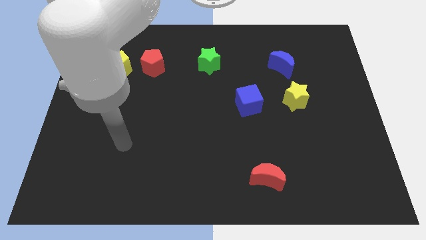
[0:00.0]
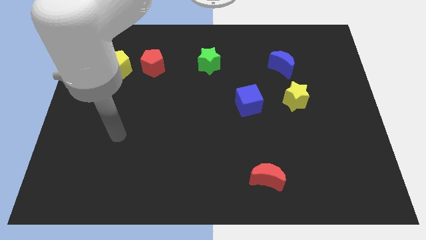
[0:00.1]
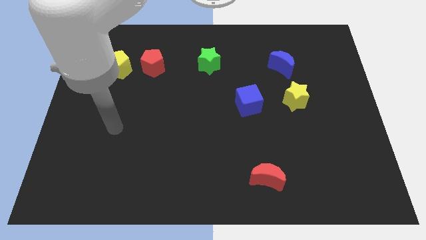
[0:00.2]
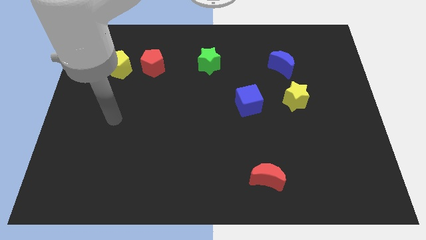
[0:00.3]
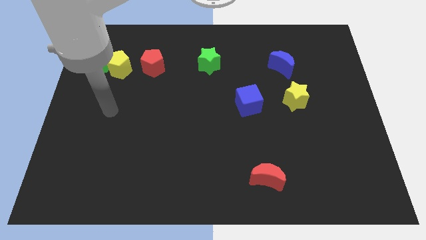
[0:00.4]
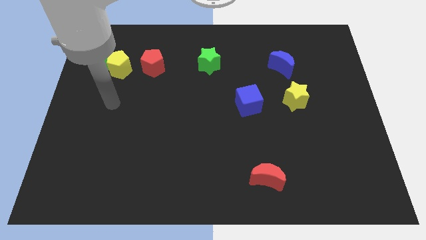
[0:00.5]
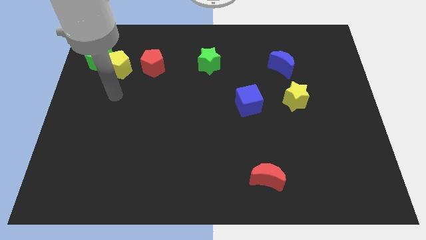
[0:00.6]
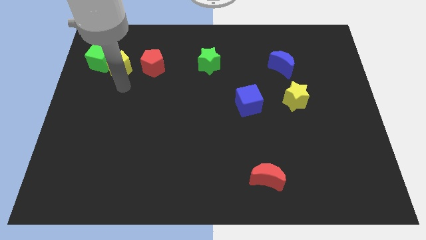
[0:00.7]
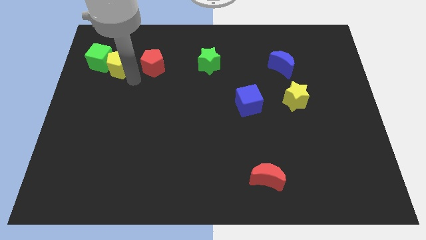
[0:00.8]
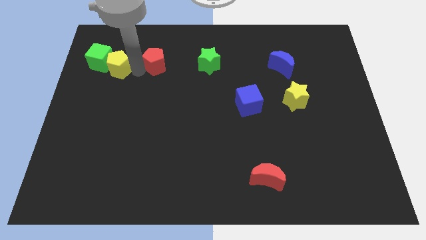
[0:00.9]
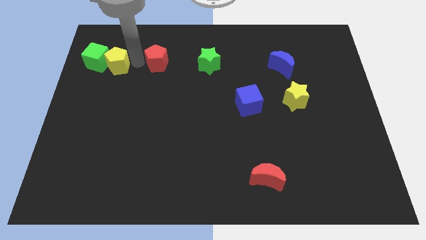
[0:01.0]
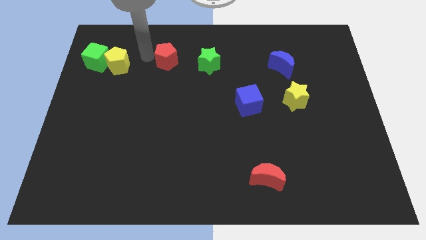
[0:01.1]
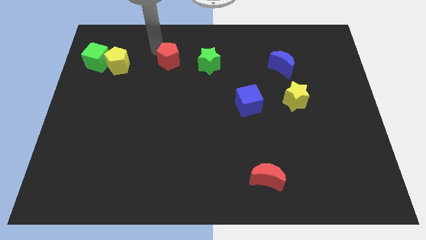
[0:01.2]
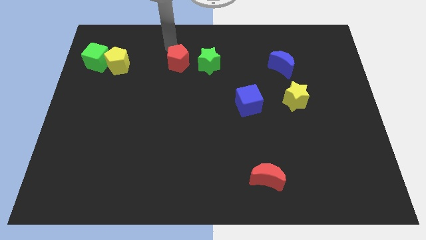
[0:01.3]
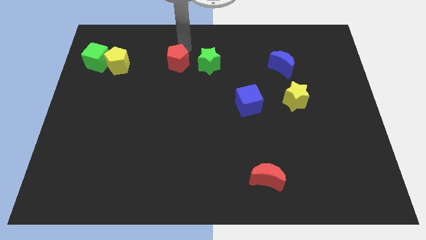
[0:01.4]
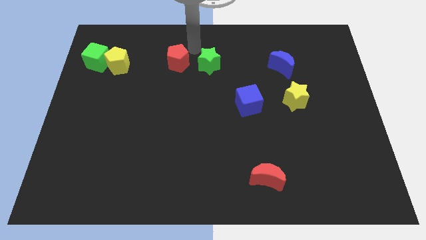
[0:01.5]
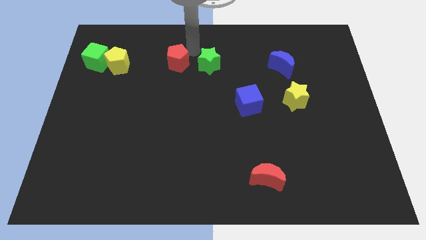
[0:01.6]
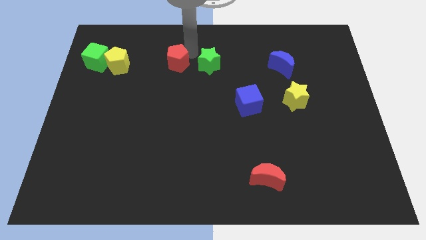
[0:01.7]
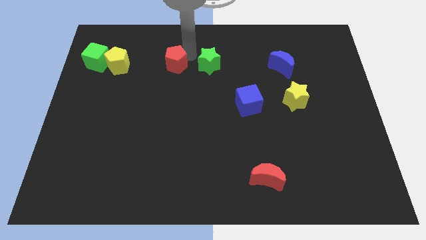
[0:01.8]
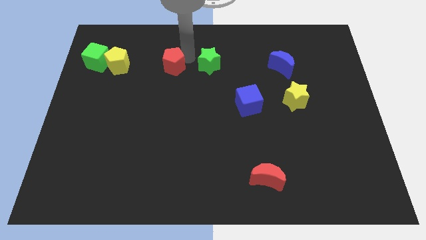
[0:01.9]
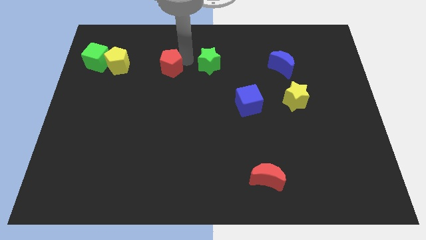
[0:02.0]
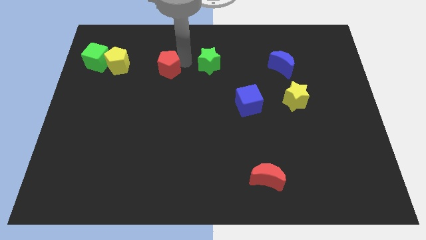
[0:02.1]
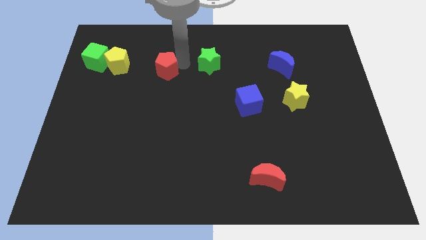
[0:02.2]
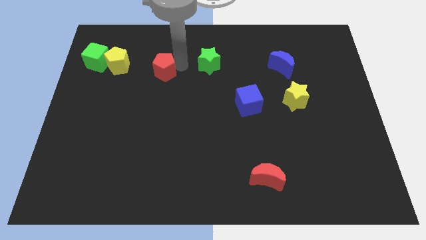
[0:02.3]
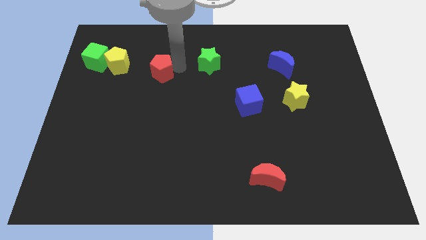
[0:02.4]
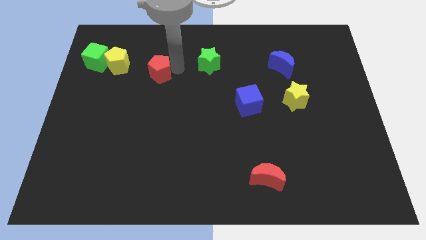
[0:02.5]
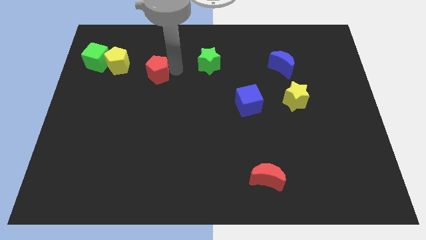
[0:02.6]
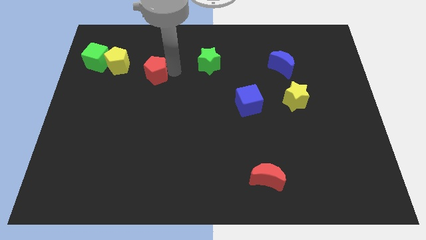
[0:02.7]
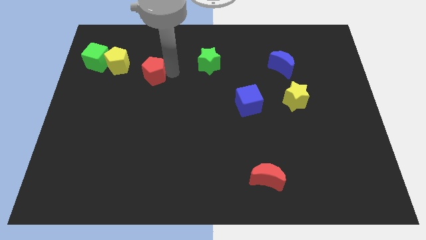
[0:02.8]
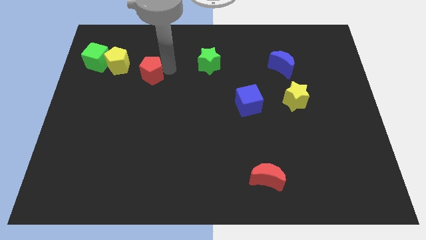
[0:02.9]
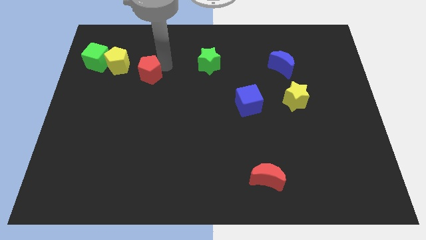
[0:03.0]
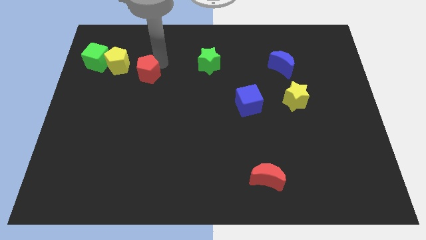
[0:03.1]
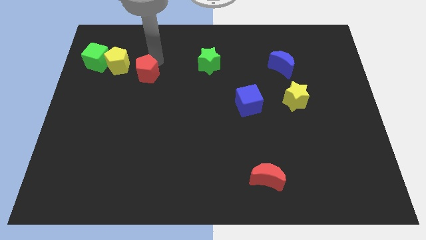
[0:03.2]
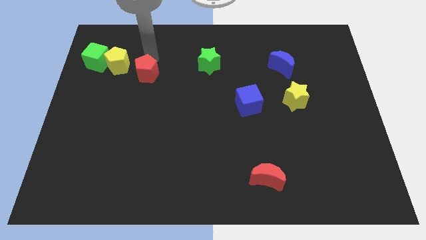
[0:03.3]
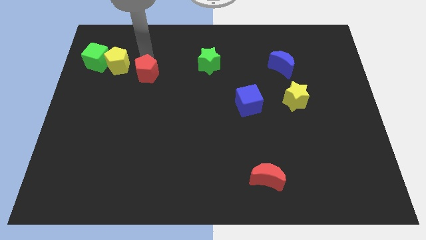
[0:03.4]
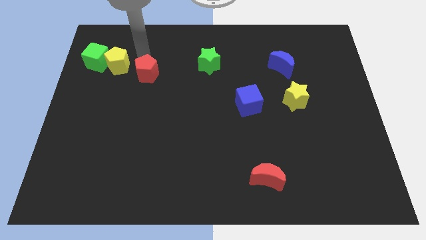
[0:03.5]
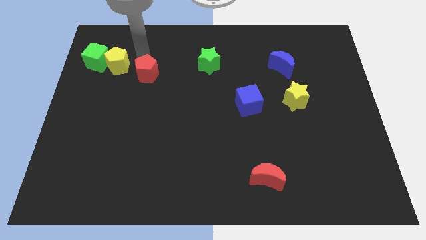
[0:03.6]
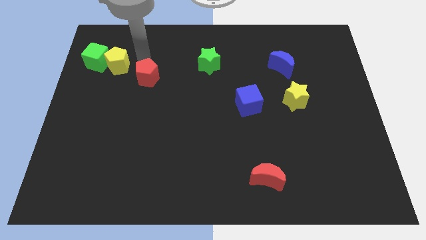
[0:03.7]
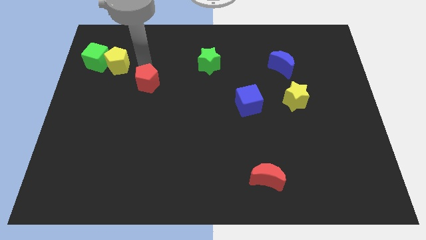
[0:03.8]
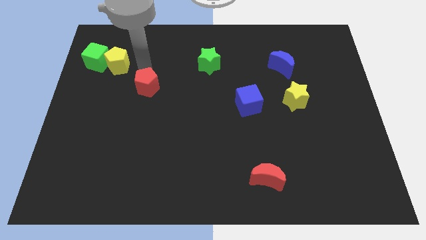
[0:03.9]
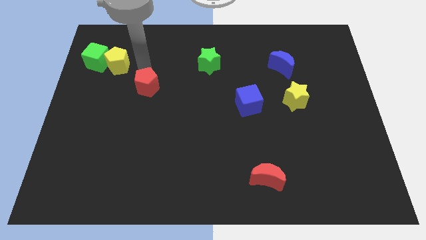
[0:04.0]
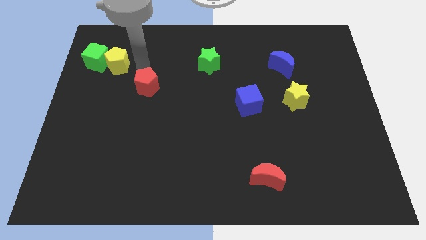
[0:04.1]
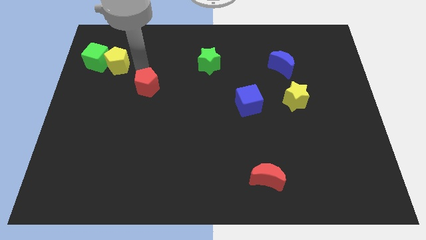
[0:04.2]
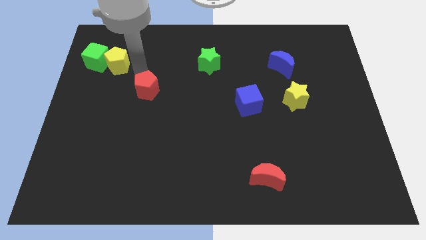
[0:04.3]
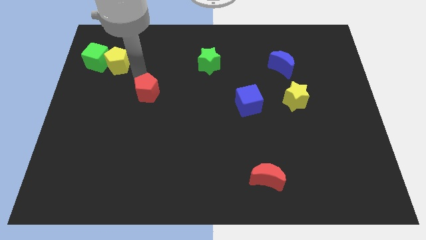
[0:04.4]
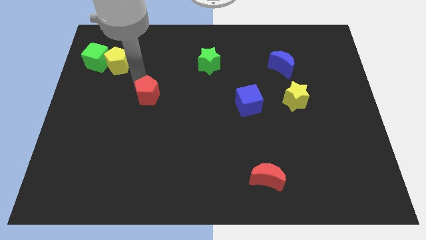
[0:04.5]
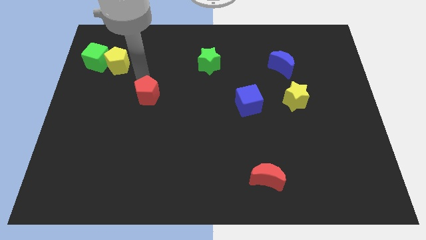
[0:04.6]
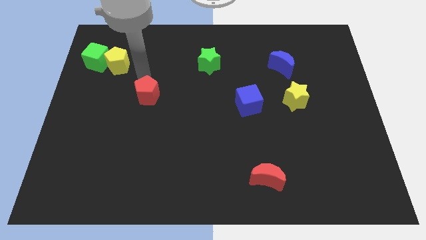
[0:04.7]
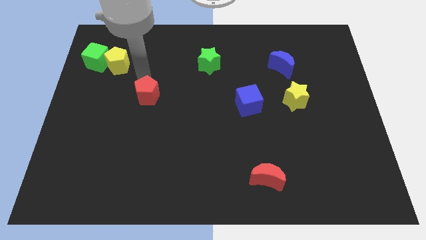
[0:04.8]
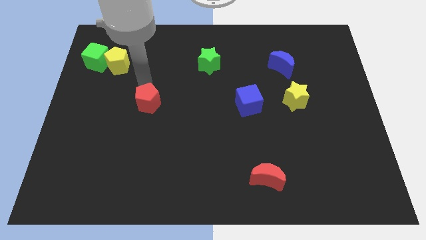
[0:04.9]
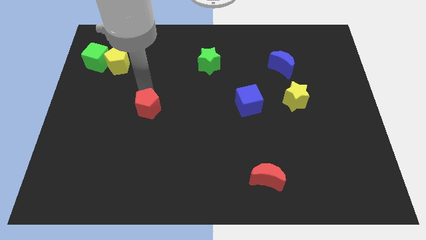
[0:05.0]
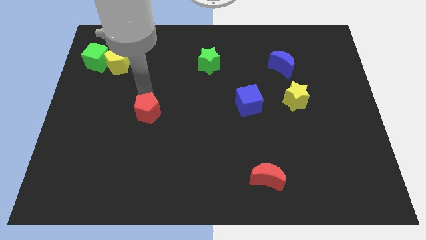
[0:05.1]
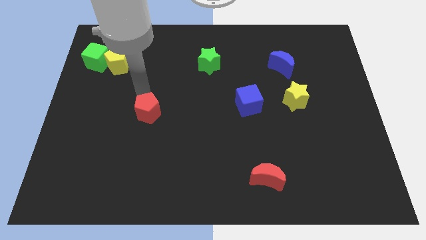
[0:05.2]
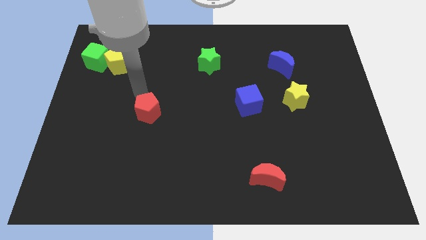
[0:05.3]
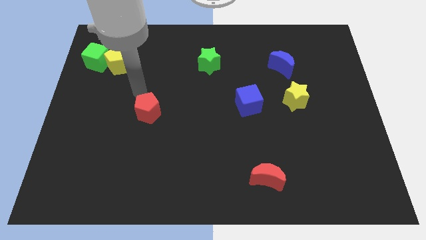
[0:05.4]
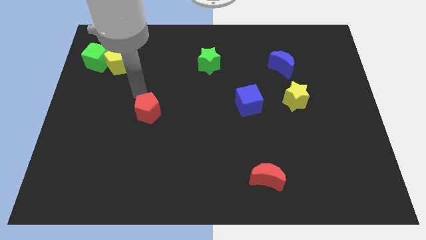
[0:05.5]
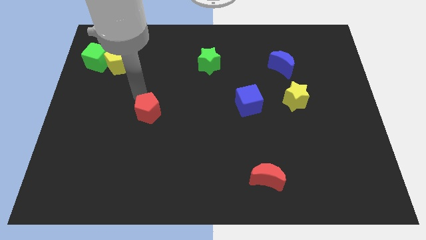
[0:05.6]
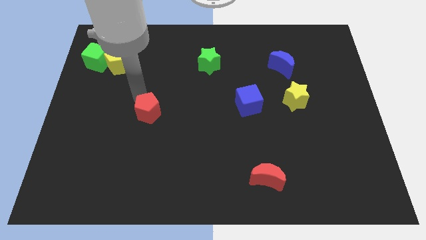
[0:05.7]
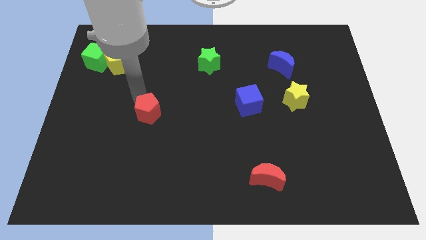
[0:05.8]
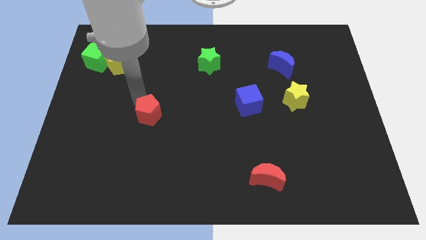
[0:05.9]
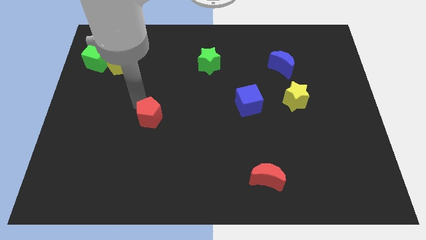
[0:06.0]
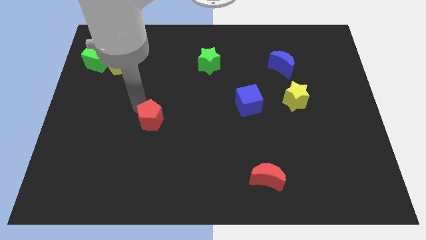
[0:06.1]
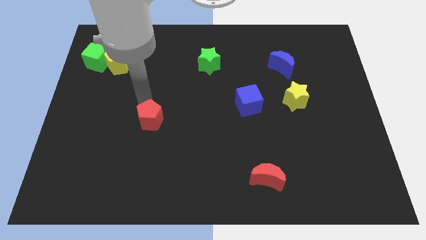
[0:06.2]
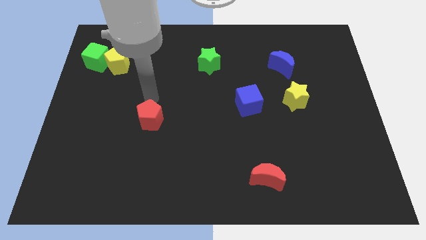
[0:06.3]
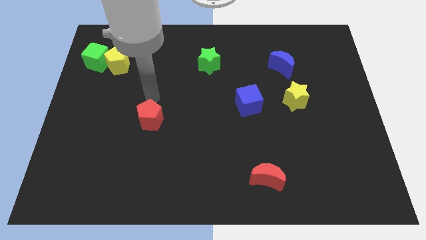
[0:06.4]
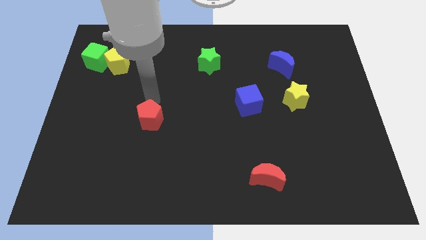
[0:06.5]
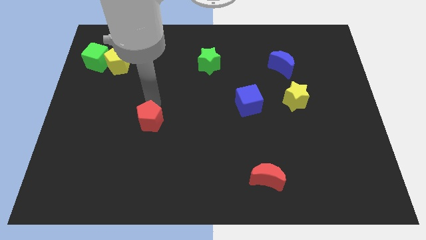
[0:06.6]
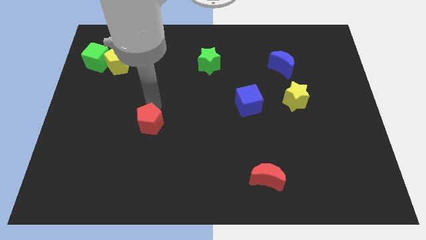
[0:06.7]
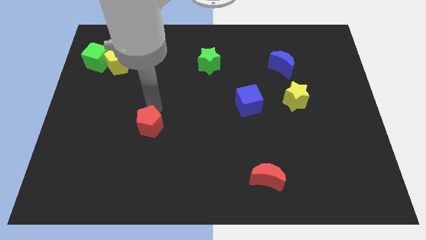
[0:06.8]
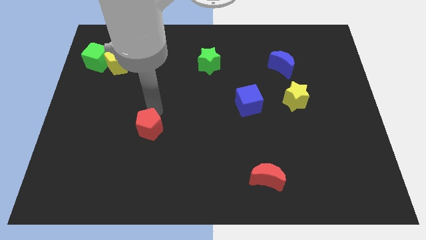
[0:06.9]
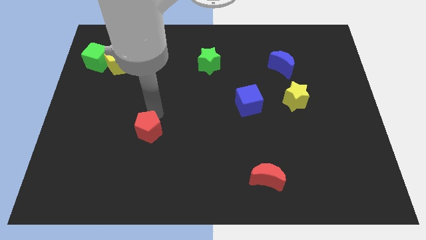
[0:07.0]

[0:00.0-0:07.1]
push the red pentagon down

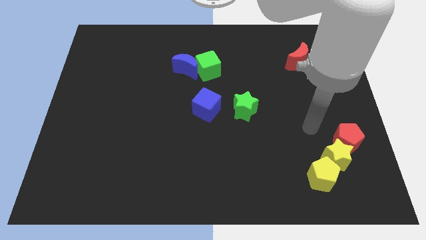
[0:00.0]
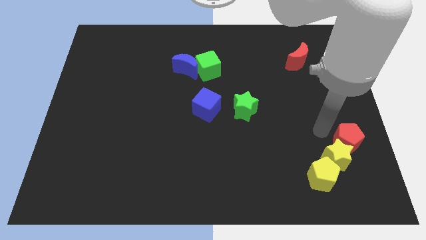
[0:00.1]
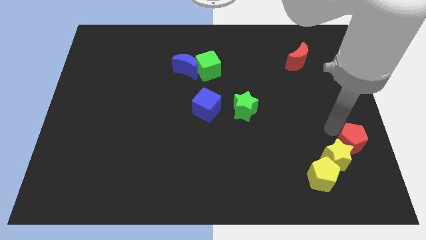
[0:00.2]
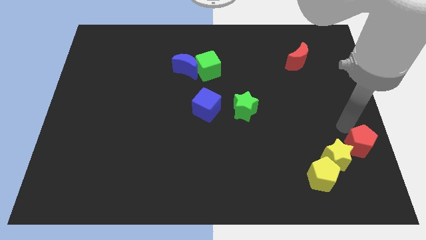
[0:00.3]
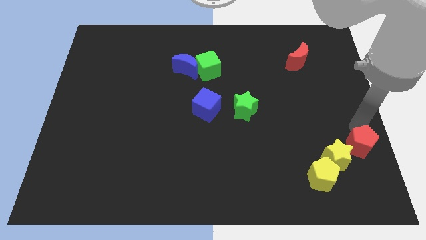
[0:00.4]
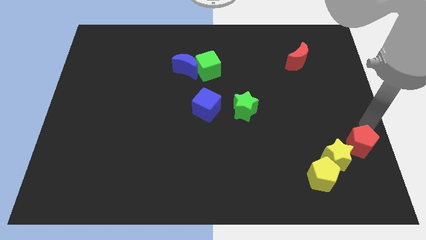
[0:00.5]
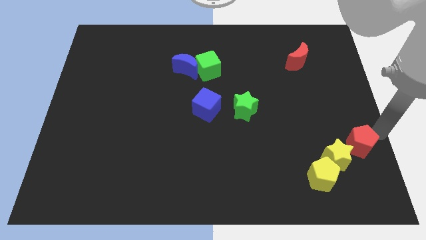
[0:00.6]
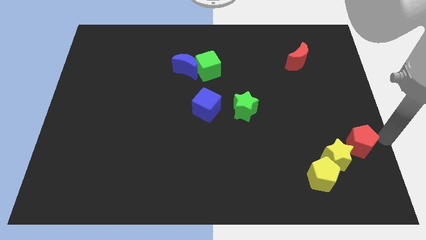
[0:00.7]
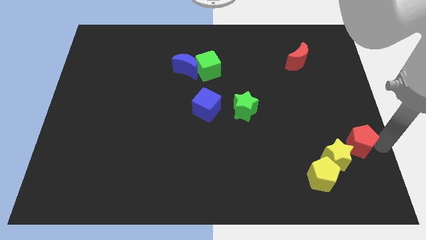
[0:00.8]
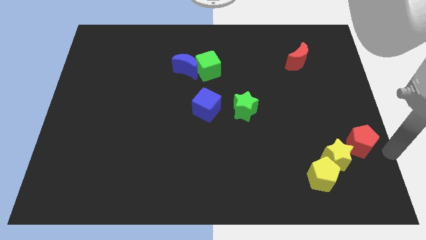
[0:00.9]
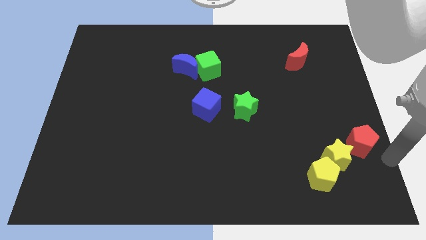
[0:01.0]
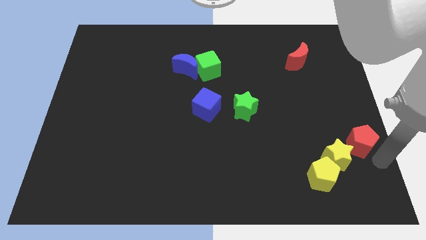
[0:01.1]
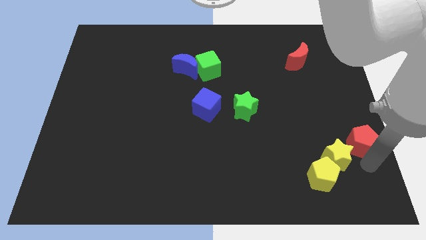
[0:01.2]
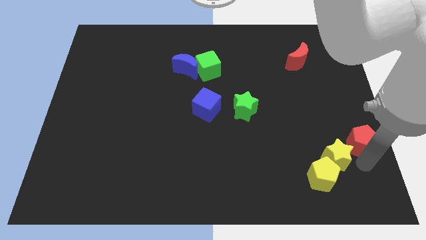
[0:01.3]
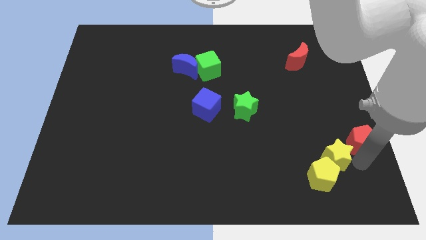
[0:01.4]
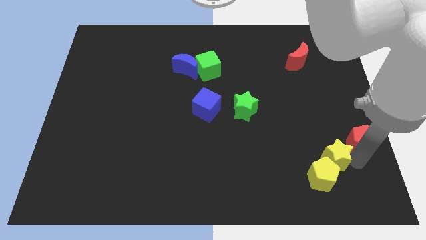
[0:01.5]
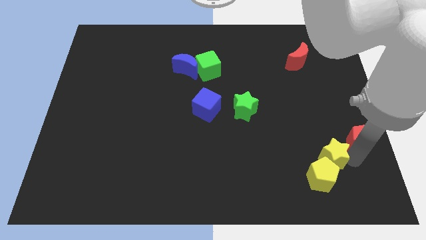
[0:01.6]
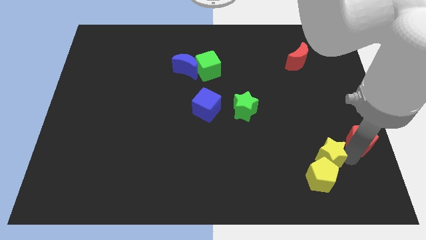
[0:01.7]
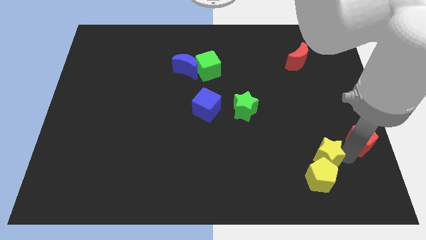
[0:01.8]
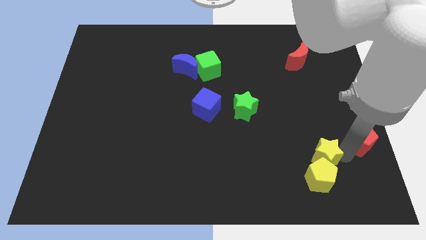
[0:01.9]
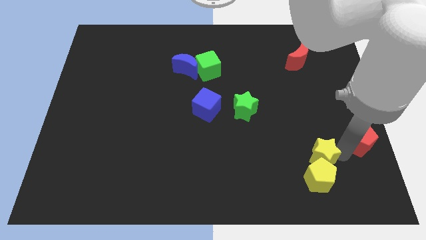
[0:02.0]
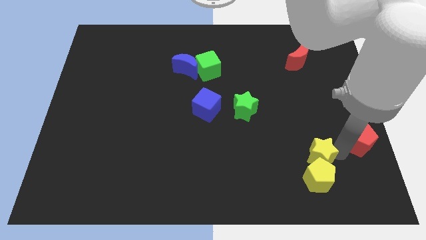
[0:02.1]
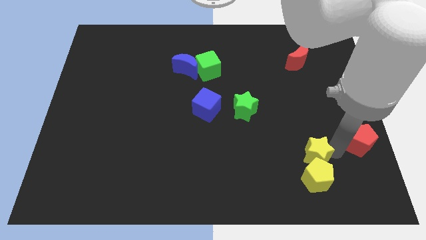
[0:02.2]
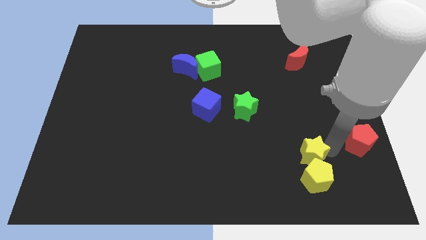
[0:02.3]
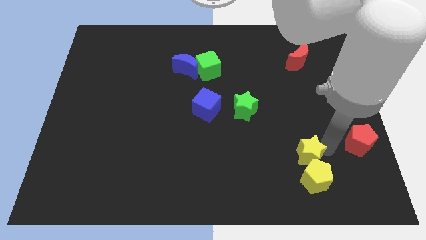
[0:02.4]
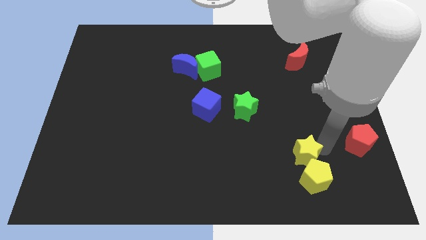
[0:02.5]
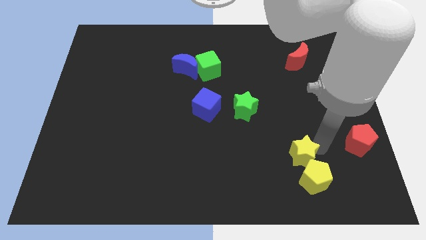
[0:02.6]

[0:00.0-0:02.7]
slide the yellow star a little bit to the left
